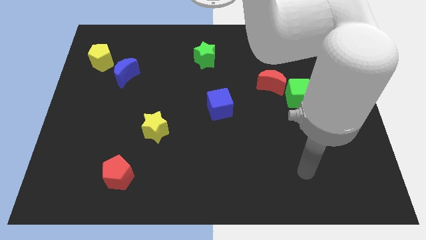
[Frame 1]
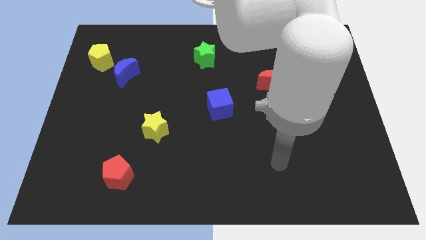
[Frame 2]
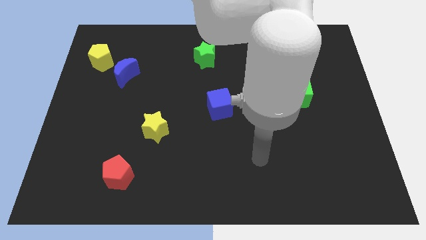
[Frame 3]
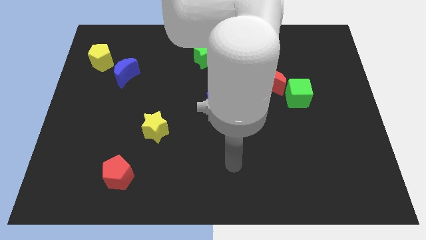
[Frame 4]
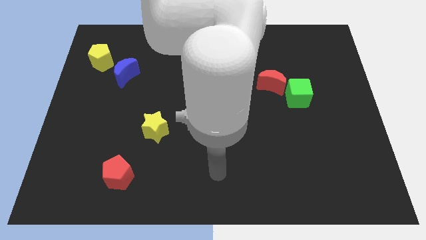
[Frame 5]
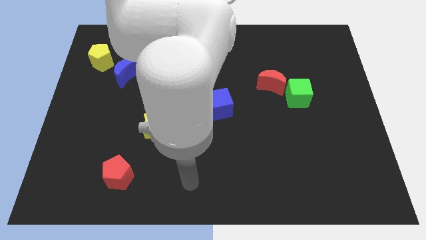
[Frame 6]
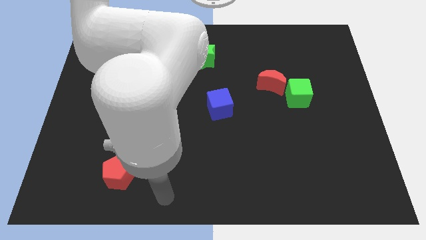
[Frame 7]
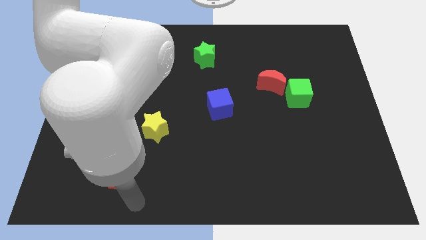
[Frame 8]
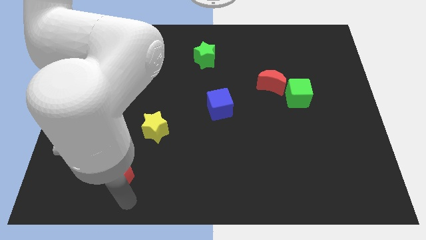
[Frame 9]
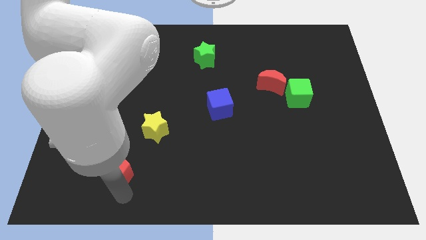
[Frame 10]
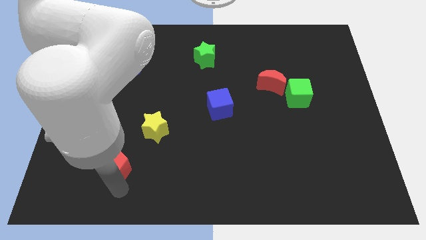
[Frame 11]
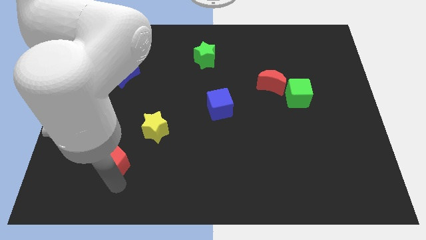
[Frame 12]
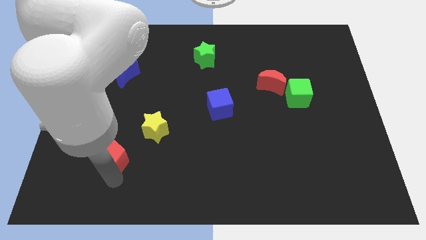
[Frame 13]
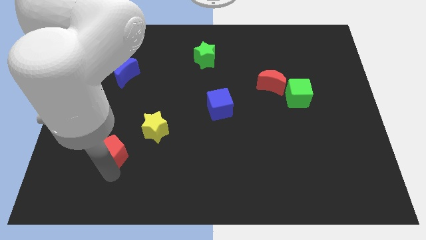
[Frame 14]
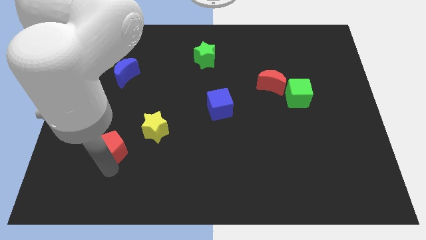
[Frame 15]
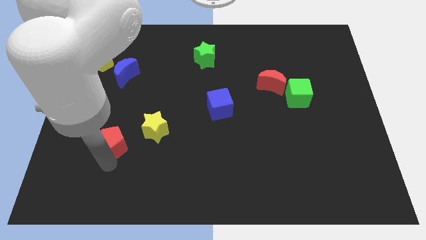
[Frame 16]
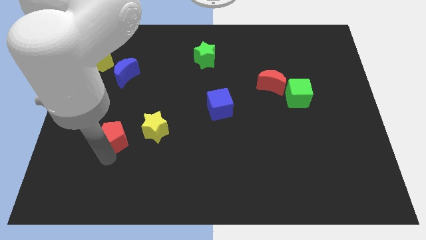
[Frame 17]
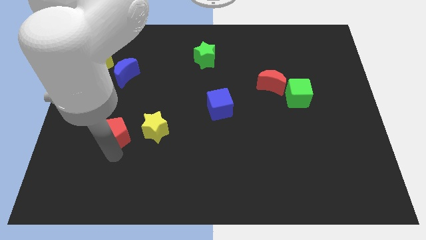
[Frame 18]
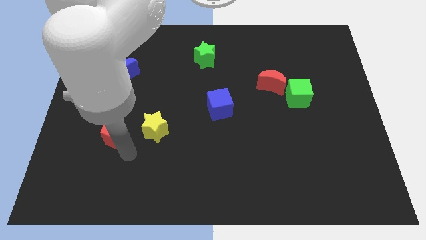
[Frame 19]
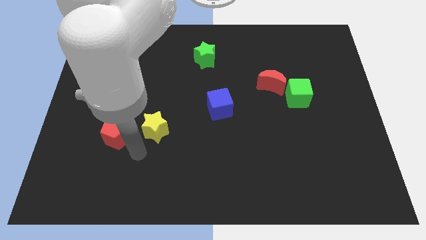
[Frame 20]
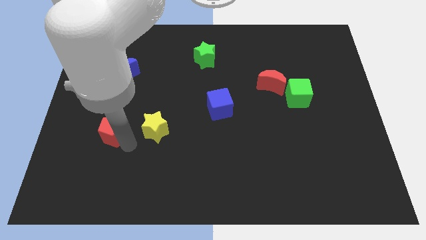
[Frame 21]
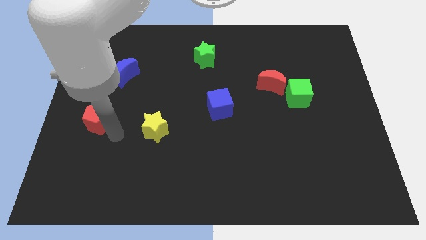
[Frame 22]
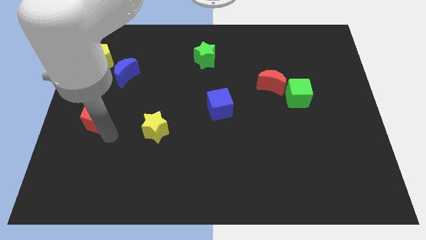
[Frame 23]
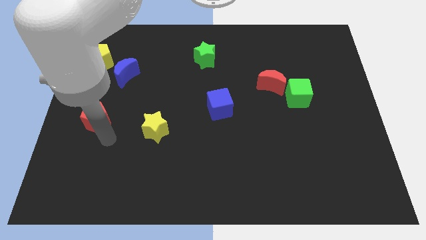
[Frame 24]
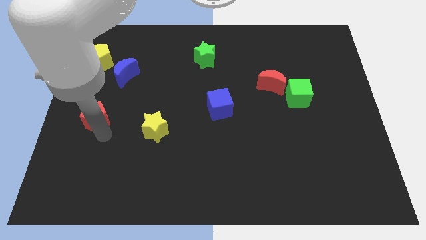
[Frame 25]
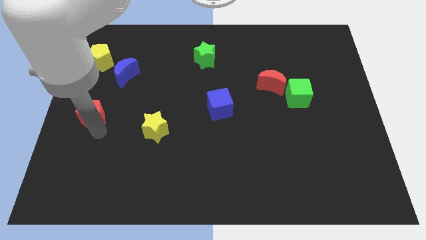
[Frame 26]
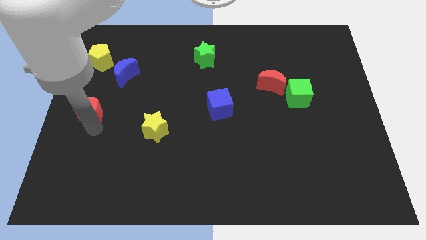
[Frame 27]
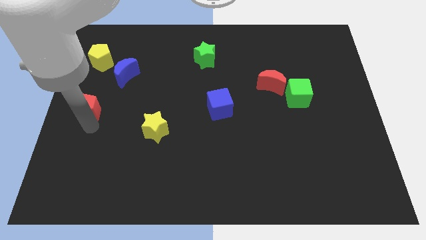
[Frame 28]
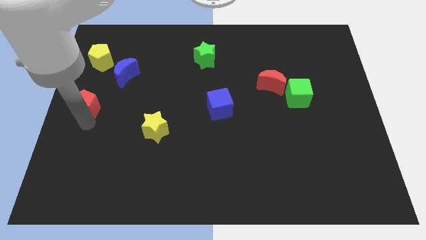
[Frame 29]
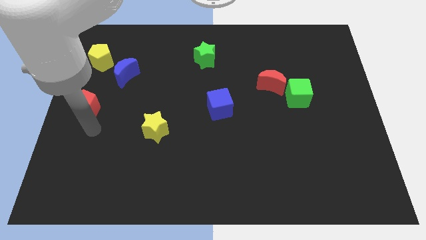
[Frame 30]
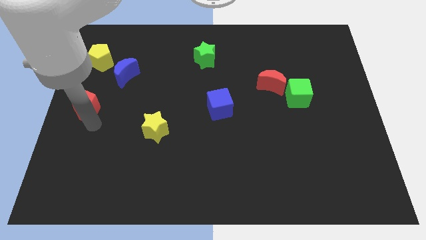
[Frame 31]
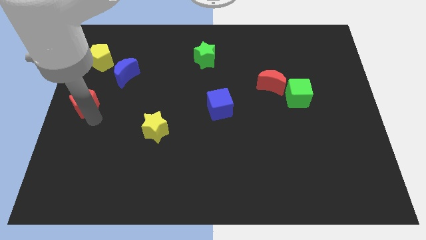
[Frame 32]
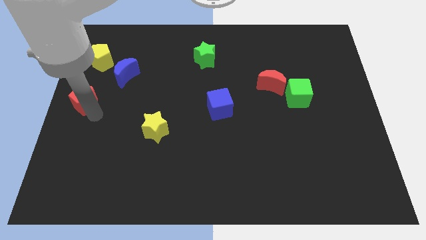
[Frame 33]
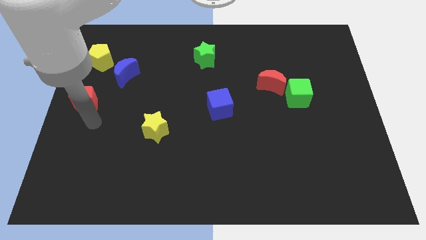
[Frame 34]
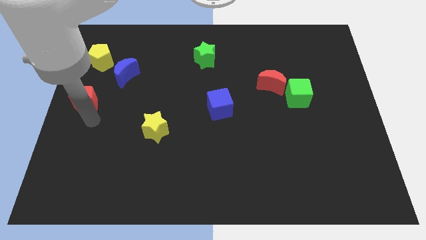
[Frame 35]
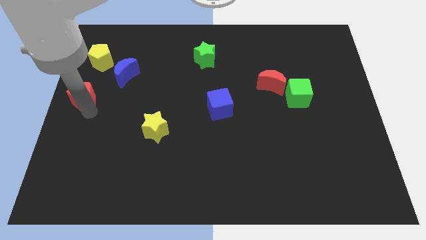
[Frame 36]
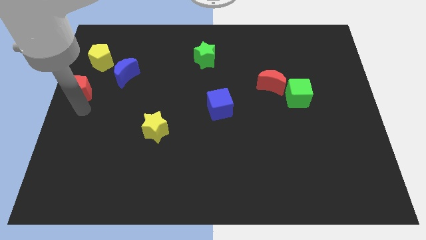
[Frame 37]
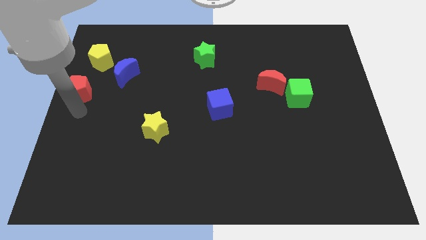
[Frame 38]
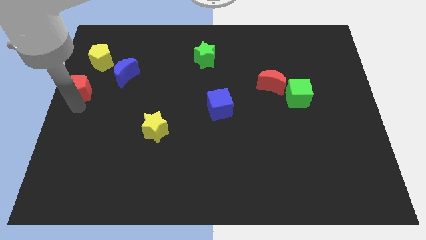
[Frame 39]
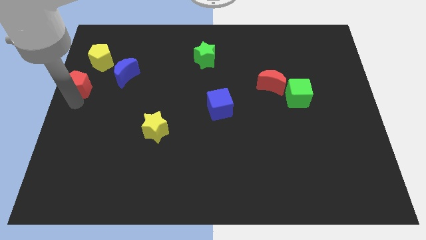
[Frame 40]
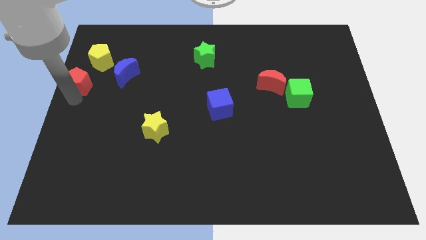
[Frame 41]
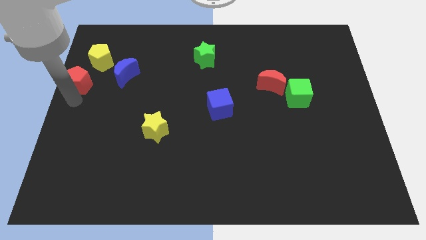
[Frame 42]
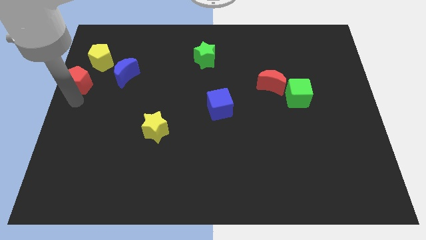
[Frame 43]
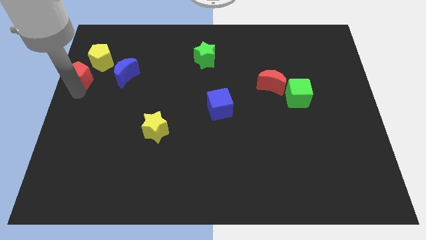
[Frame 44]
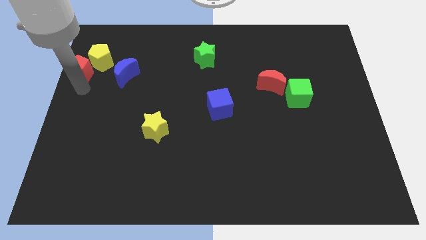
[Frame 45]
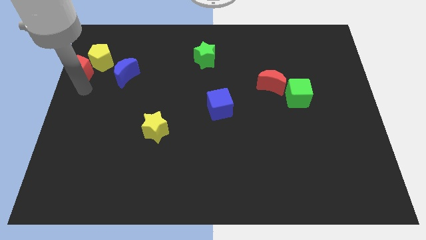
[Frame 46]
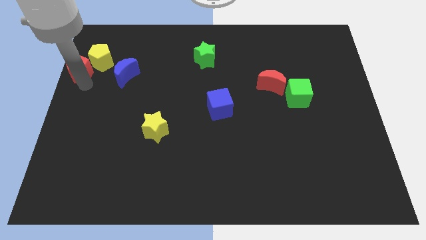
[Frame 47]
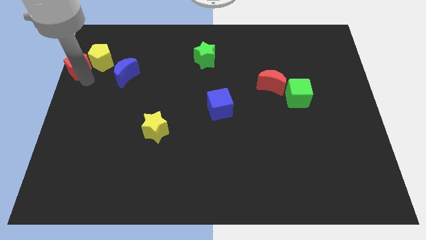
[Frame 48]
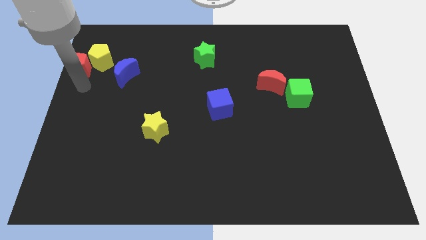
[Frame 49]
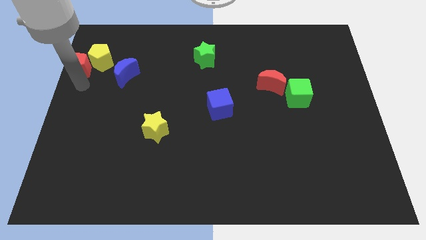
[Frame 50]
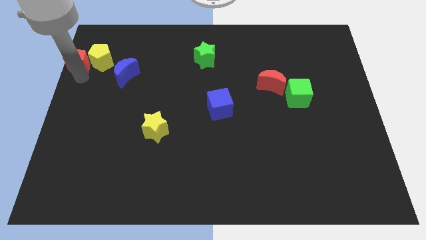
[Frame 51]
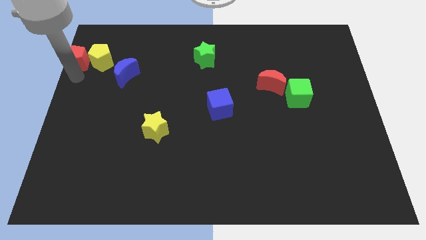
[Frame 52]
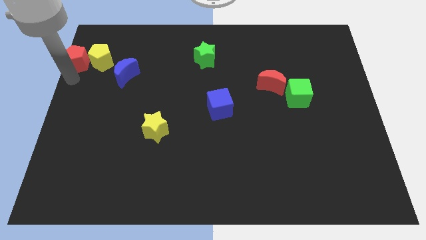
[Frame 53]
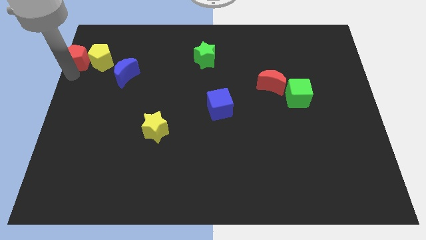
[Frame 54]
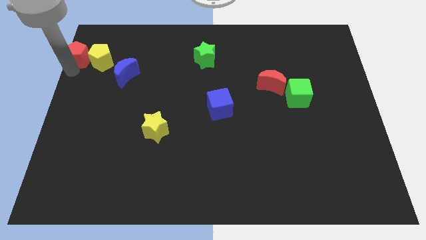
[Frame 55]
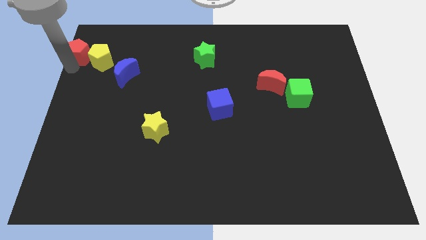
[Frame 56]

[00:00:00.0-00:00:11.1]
push the red pentagon to the upper left corner
